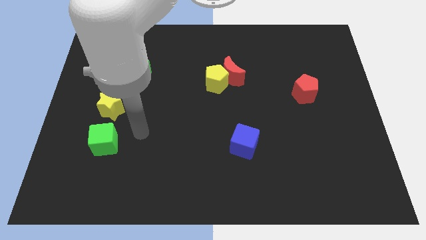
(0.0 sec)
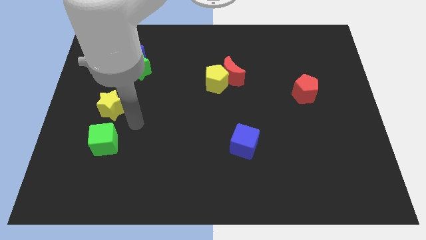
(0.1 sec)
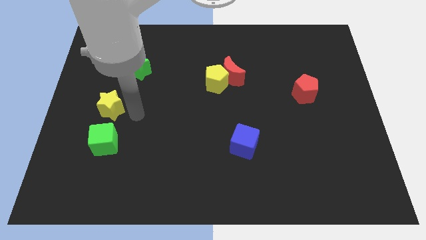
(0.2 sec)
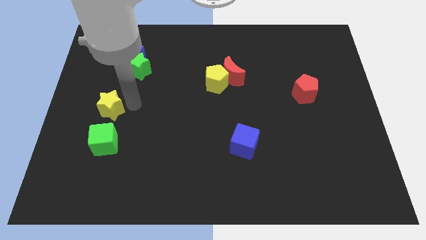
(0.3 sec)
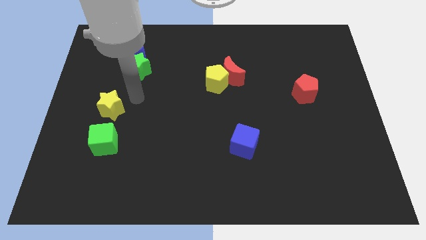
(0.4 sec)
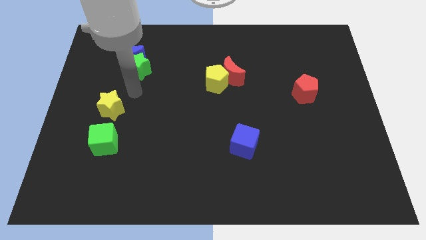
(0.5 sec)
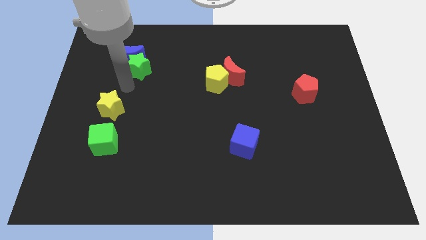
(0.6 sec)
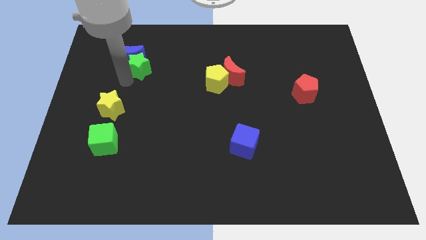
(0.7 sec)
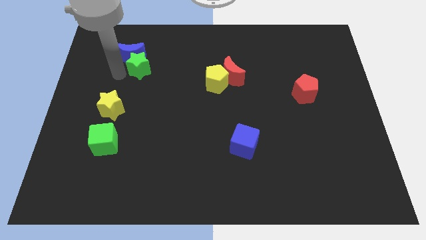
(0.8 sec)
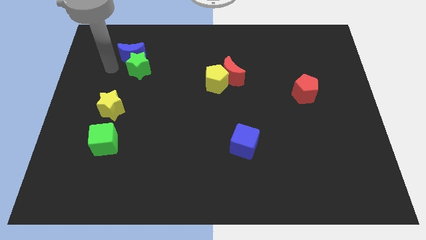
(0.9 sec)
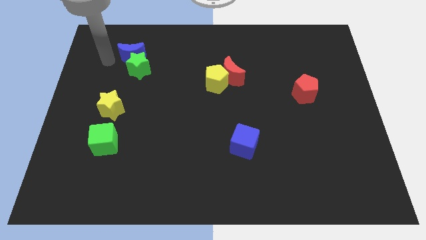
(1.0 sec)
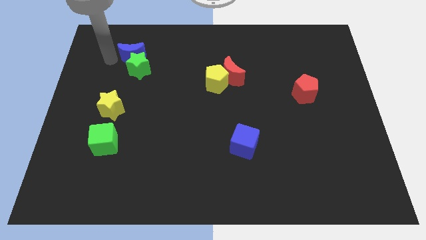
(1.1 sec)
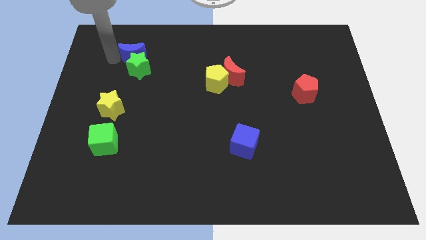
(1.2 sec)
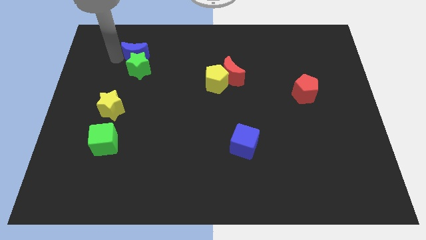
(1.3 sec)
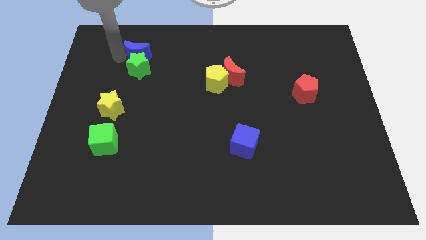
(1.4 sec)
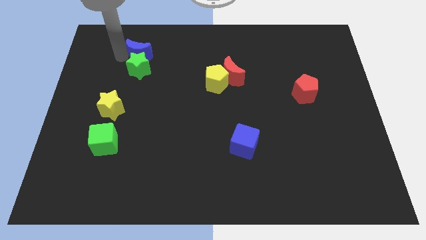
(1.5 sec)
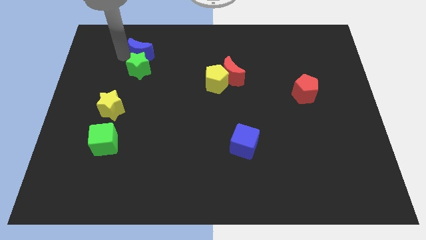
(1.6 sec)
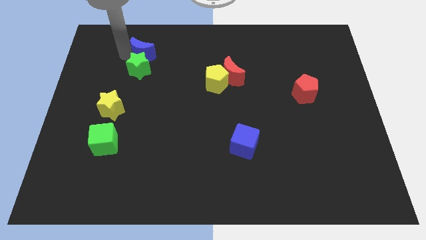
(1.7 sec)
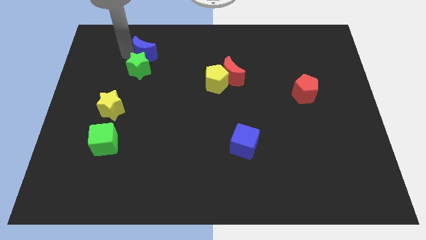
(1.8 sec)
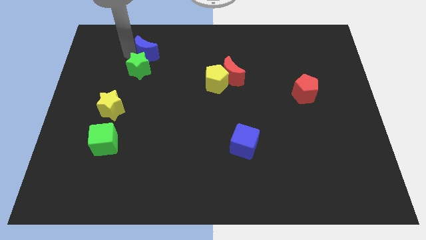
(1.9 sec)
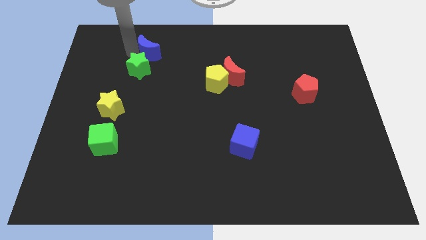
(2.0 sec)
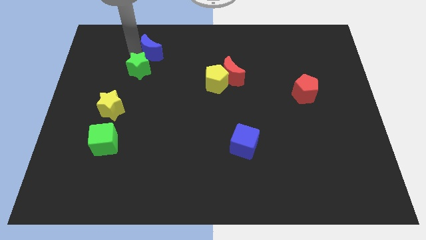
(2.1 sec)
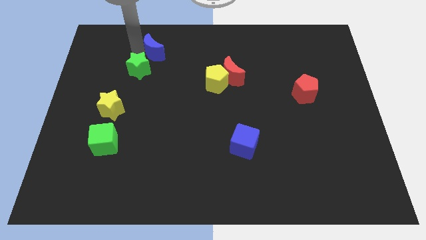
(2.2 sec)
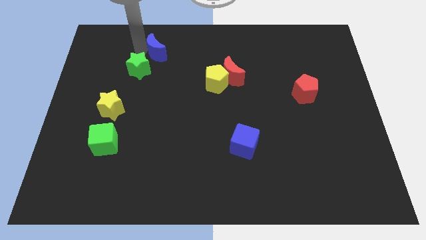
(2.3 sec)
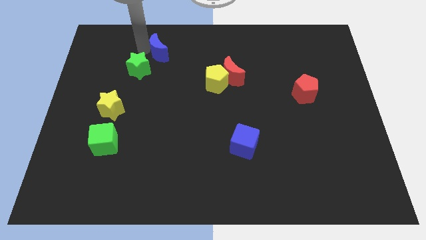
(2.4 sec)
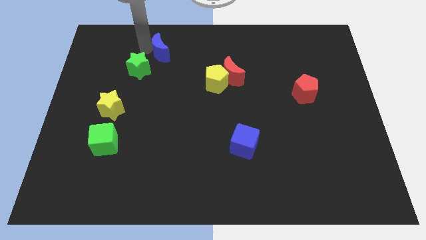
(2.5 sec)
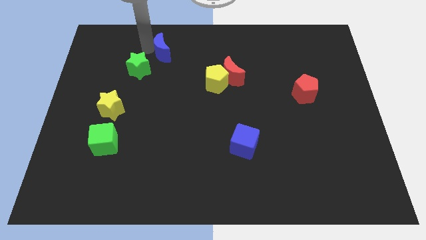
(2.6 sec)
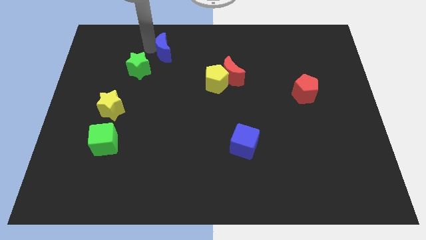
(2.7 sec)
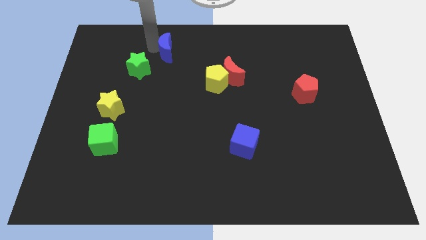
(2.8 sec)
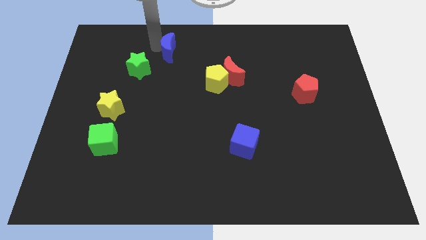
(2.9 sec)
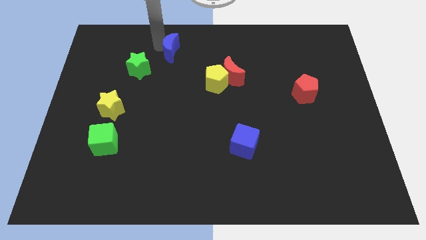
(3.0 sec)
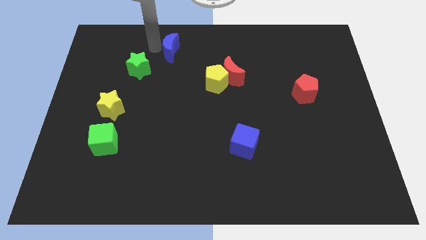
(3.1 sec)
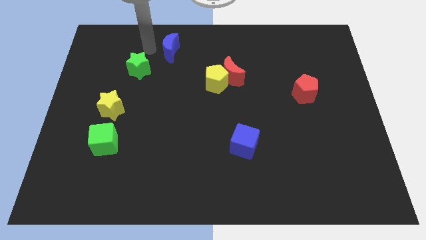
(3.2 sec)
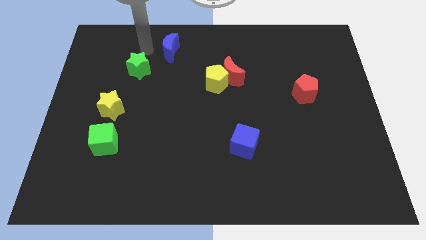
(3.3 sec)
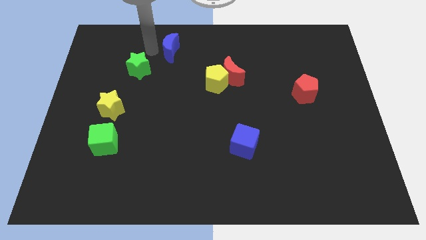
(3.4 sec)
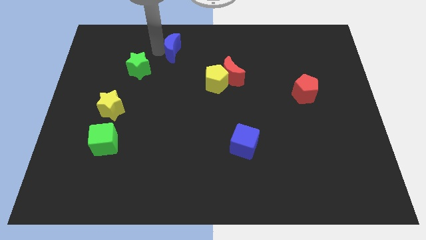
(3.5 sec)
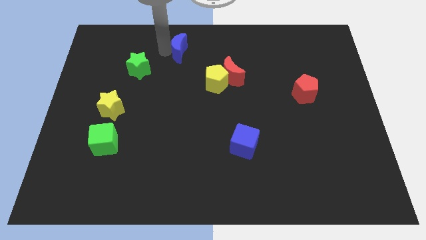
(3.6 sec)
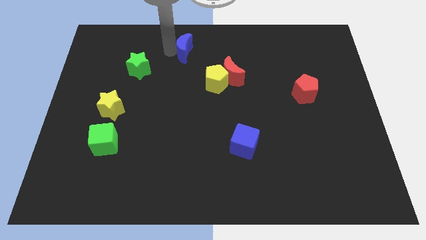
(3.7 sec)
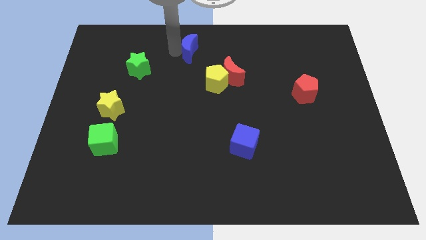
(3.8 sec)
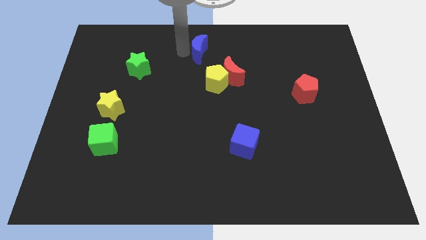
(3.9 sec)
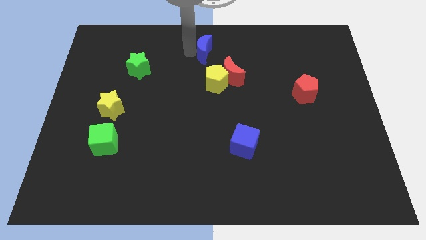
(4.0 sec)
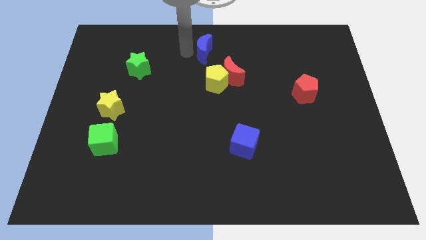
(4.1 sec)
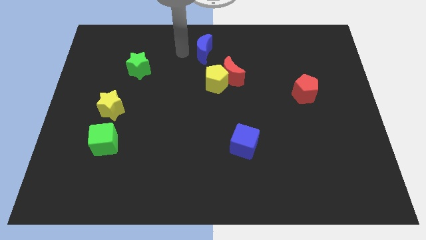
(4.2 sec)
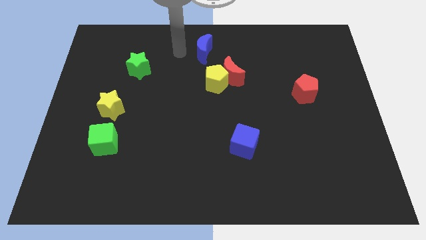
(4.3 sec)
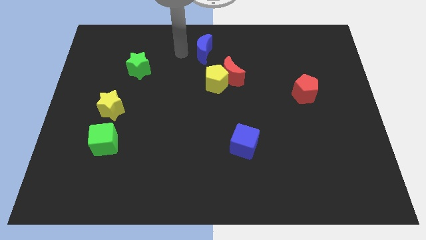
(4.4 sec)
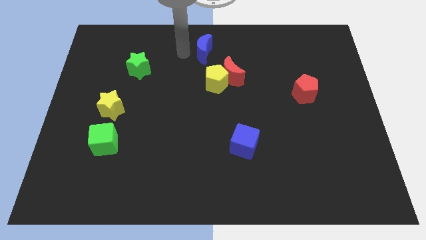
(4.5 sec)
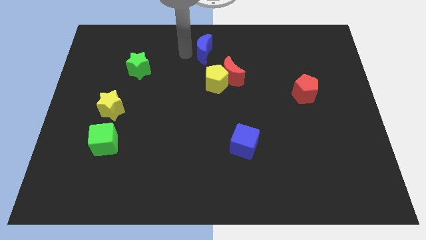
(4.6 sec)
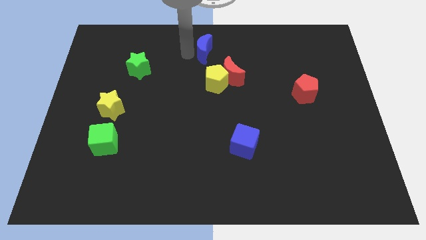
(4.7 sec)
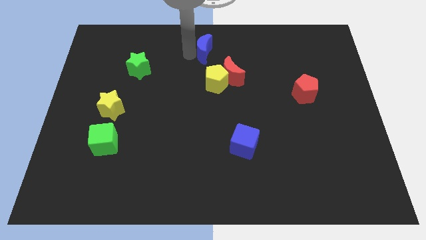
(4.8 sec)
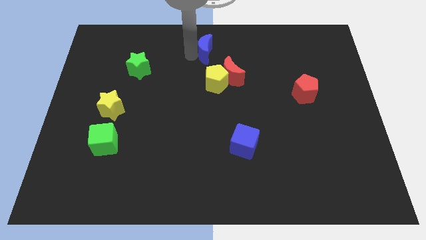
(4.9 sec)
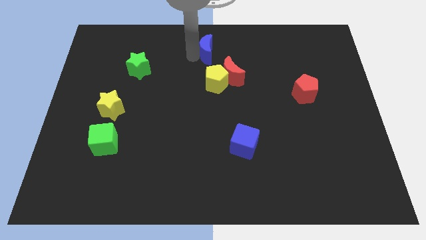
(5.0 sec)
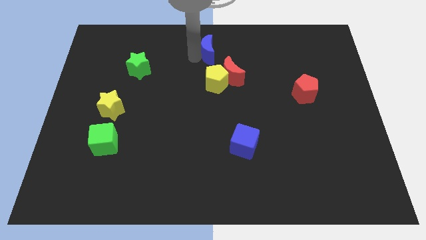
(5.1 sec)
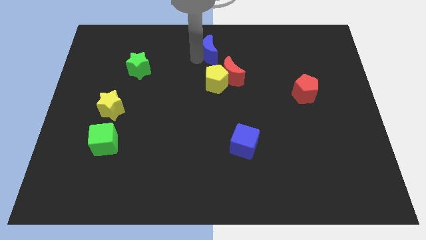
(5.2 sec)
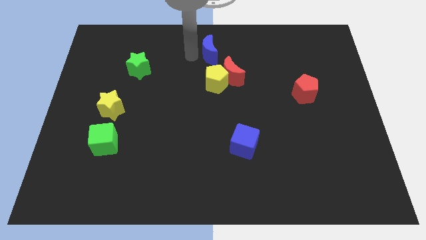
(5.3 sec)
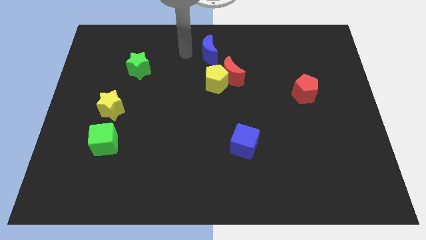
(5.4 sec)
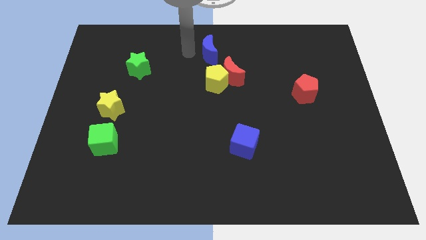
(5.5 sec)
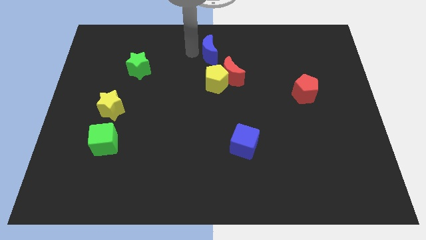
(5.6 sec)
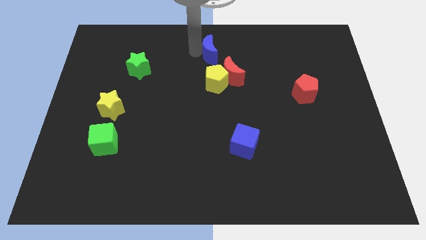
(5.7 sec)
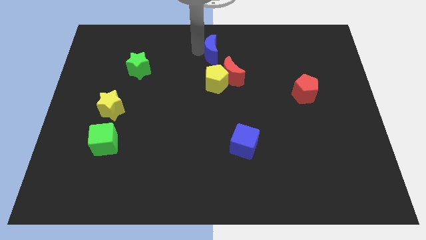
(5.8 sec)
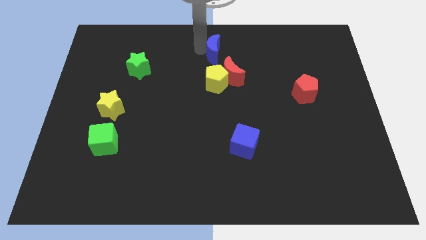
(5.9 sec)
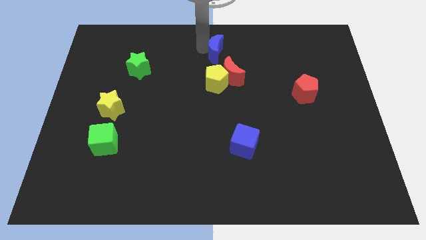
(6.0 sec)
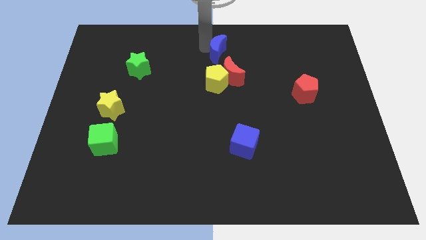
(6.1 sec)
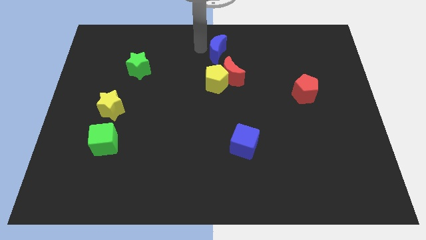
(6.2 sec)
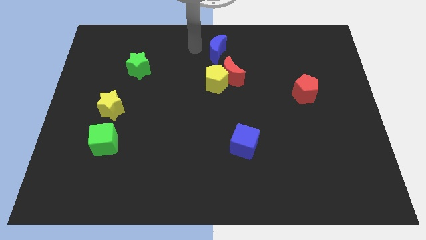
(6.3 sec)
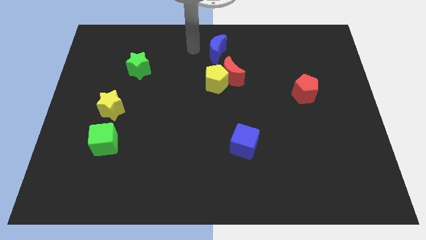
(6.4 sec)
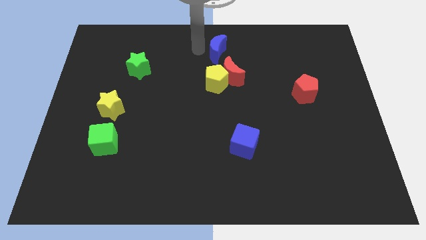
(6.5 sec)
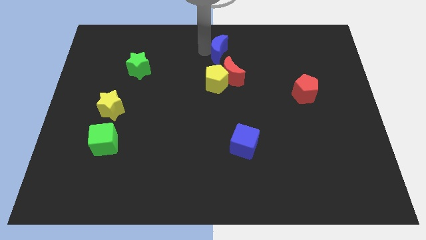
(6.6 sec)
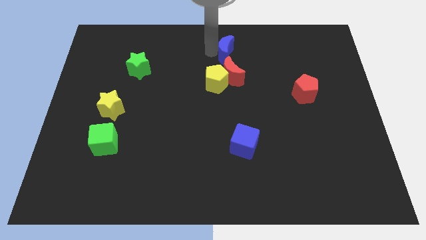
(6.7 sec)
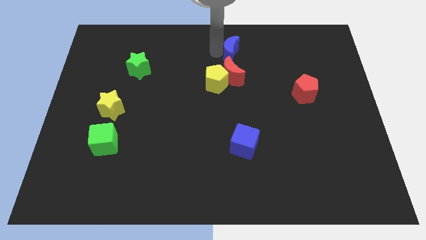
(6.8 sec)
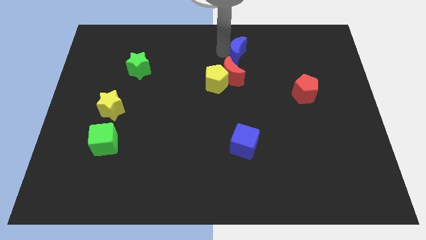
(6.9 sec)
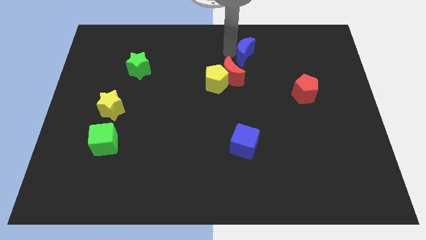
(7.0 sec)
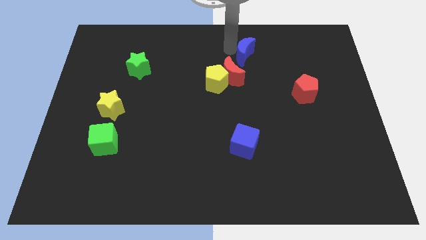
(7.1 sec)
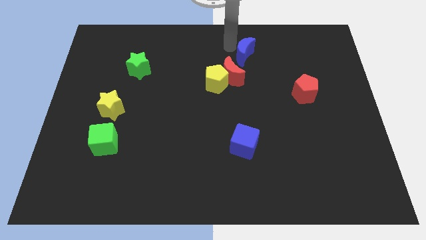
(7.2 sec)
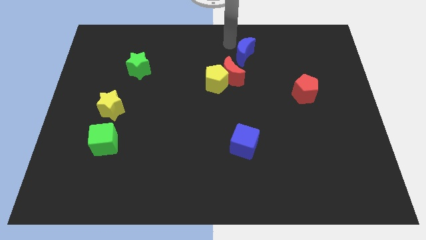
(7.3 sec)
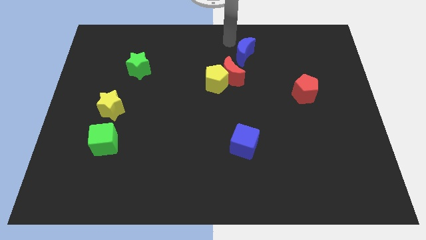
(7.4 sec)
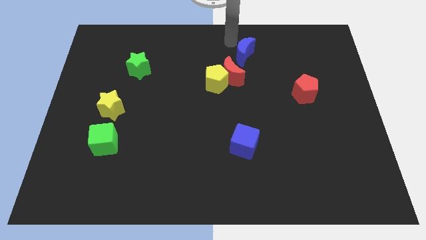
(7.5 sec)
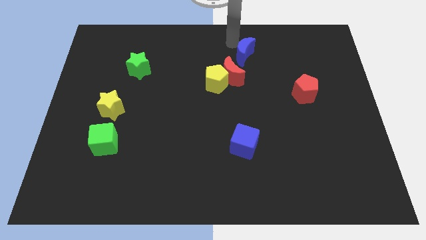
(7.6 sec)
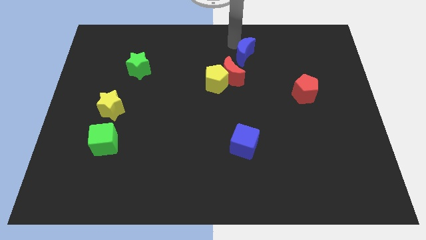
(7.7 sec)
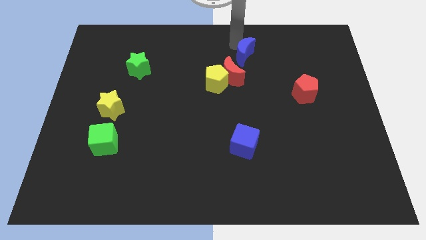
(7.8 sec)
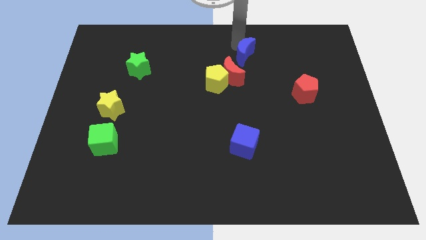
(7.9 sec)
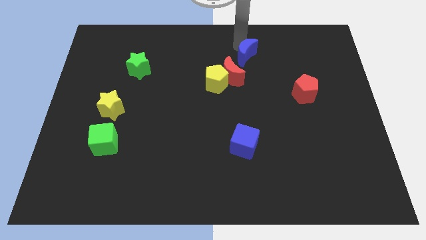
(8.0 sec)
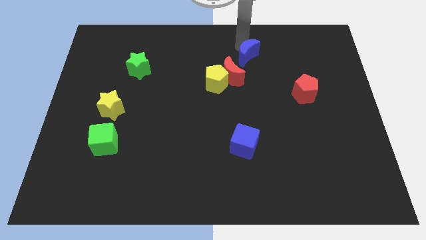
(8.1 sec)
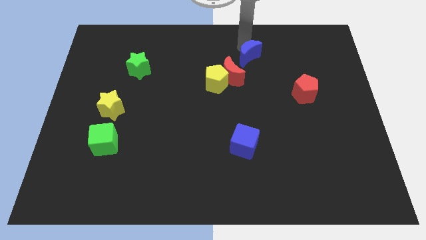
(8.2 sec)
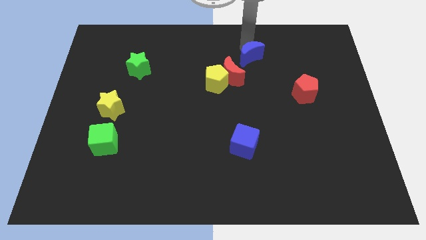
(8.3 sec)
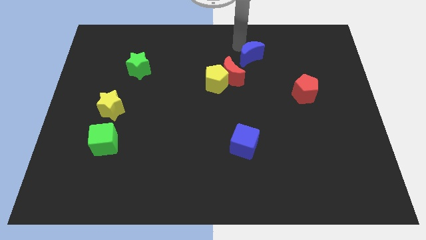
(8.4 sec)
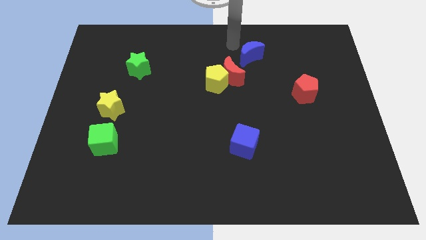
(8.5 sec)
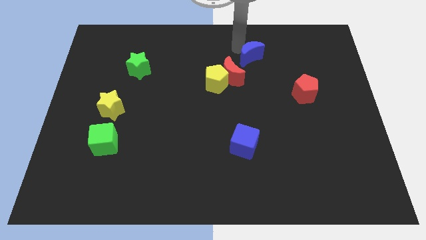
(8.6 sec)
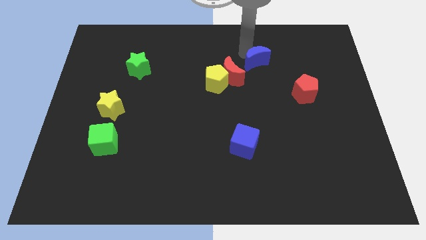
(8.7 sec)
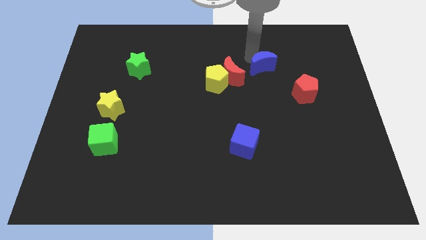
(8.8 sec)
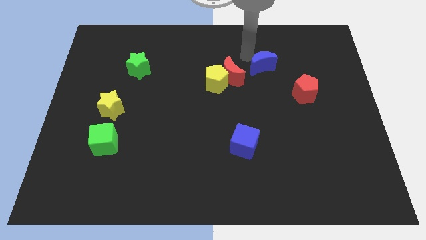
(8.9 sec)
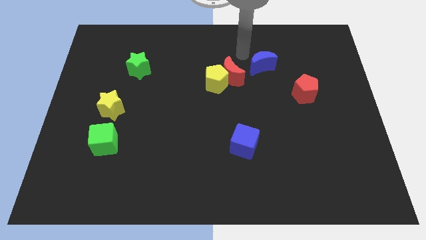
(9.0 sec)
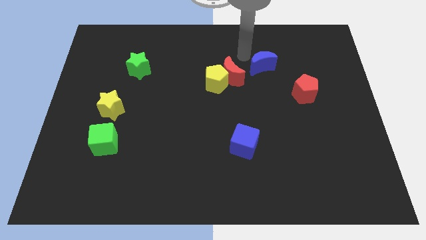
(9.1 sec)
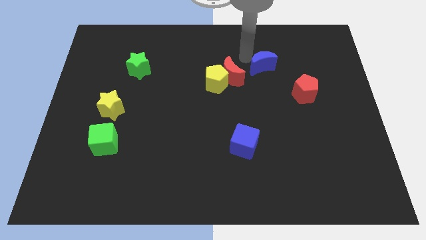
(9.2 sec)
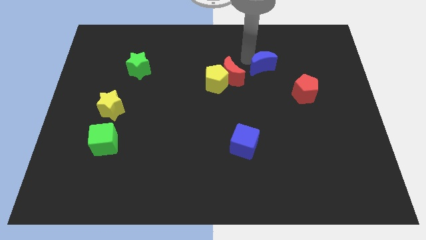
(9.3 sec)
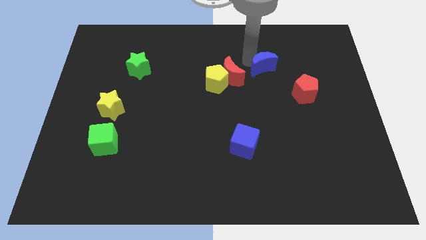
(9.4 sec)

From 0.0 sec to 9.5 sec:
push the blue moon to the top left side of the red pentagon
